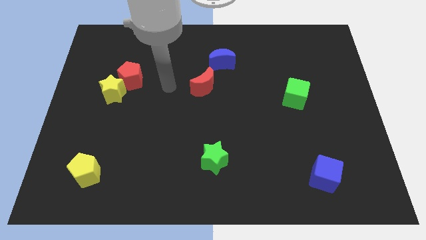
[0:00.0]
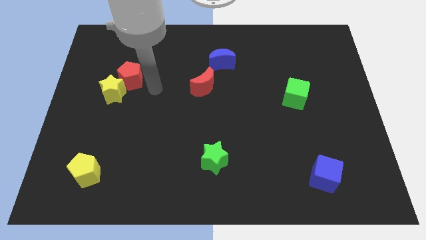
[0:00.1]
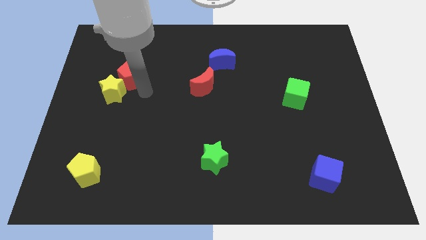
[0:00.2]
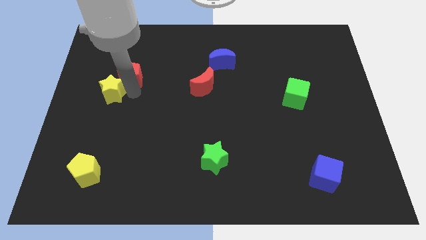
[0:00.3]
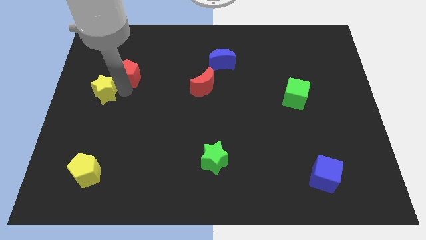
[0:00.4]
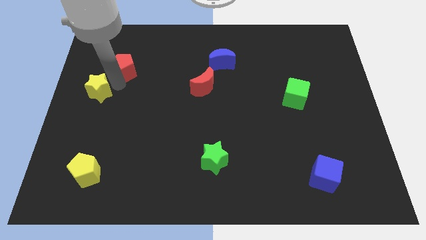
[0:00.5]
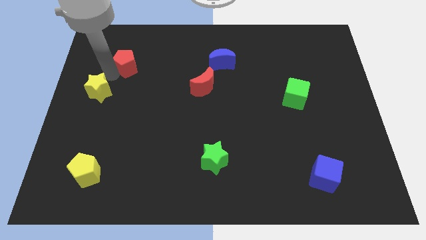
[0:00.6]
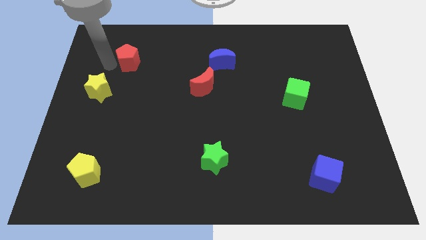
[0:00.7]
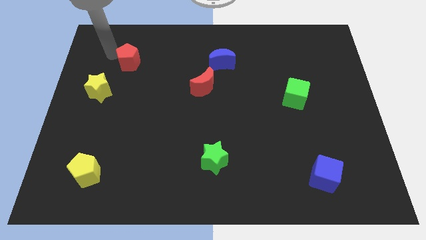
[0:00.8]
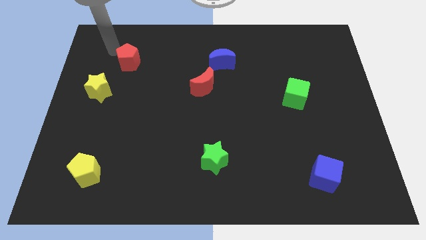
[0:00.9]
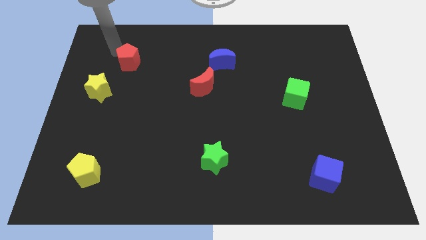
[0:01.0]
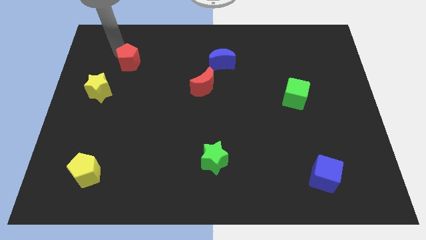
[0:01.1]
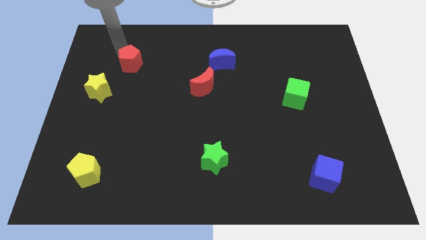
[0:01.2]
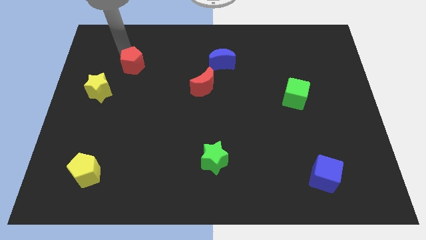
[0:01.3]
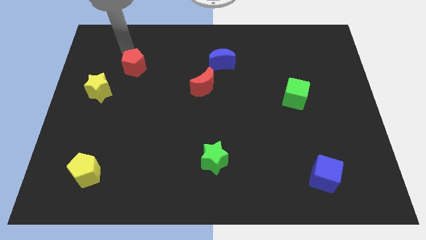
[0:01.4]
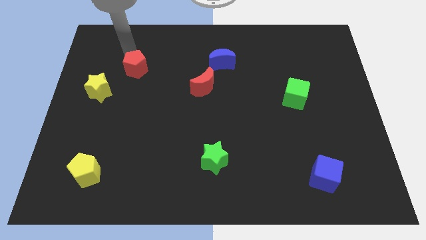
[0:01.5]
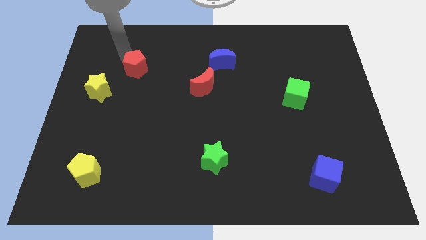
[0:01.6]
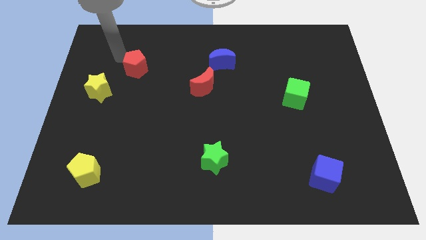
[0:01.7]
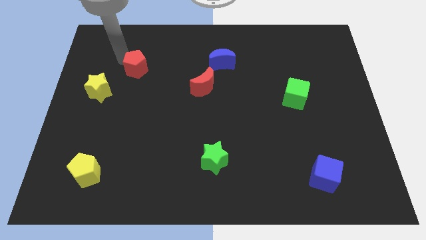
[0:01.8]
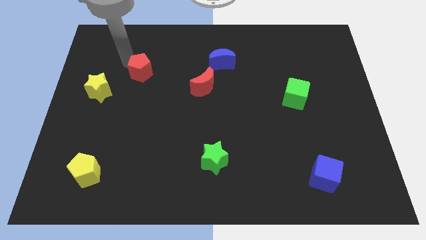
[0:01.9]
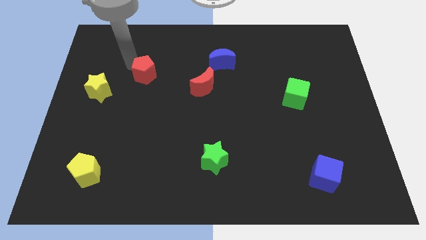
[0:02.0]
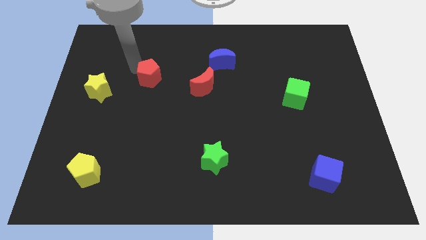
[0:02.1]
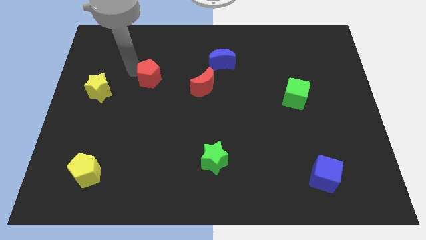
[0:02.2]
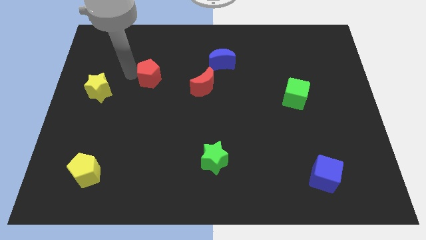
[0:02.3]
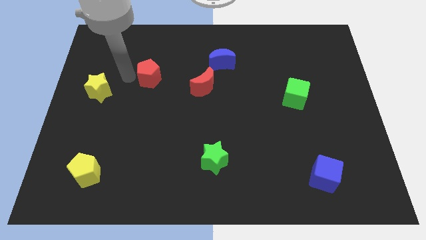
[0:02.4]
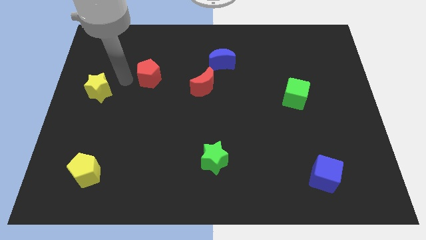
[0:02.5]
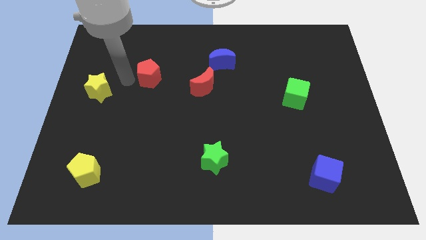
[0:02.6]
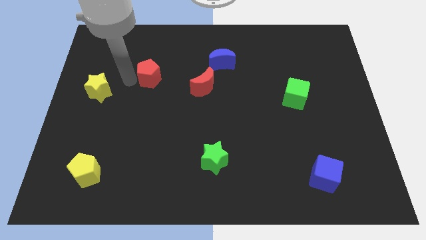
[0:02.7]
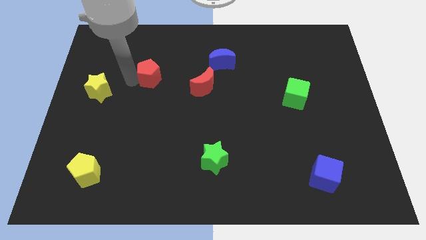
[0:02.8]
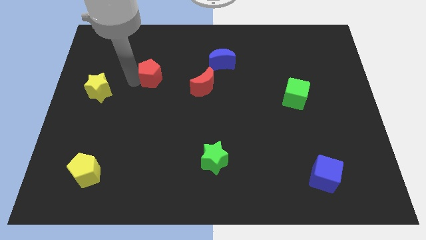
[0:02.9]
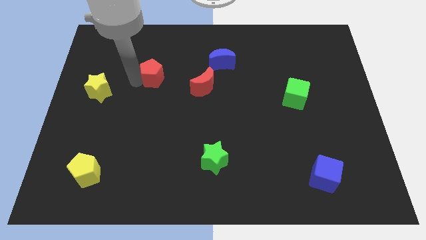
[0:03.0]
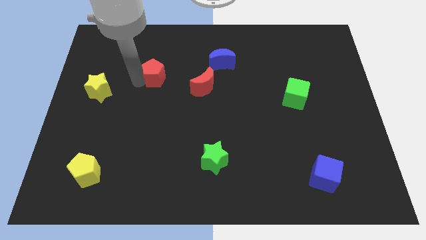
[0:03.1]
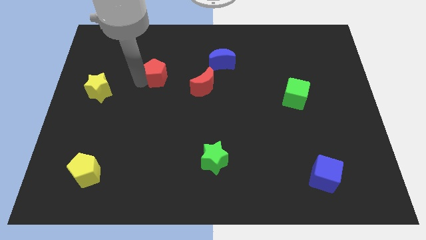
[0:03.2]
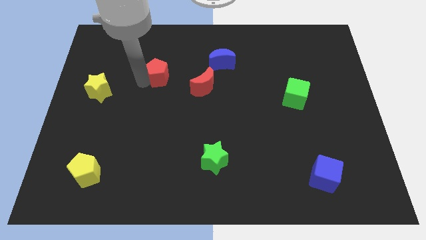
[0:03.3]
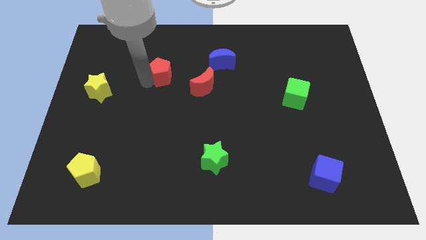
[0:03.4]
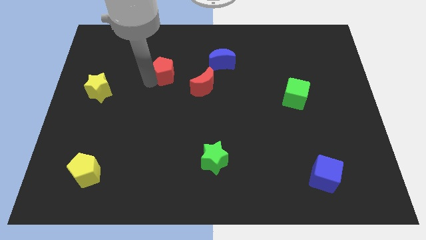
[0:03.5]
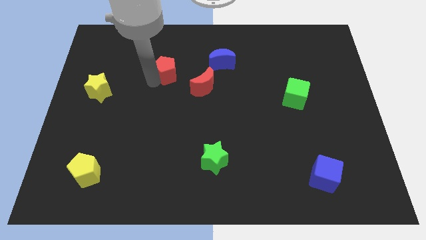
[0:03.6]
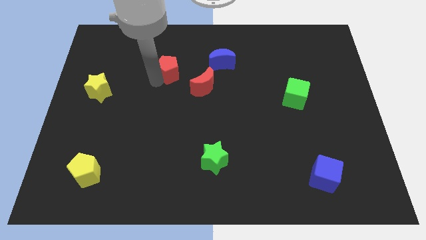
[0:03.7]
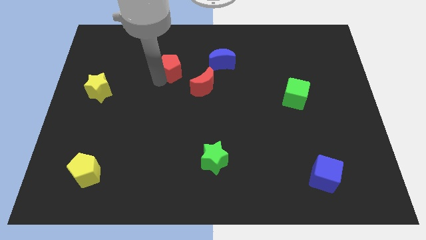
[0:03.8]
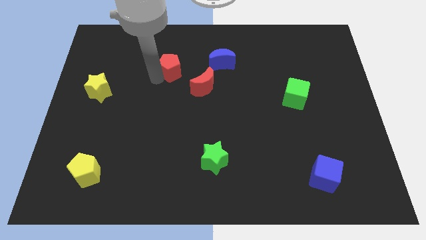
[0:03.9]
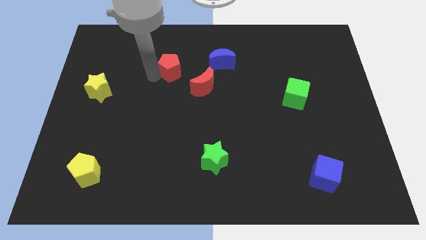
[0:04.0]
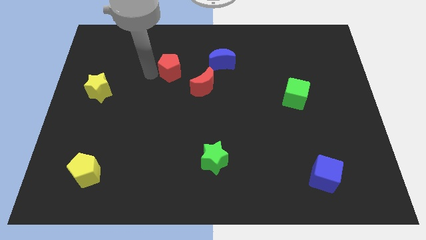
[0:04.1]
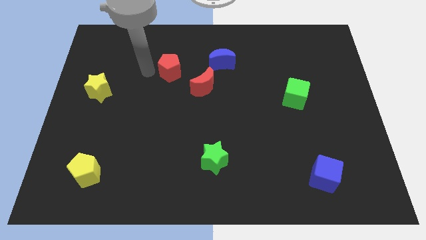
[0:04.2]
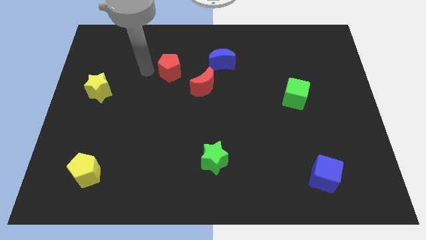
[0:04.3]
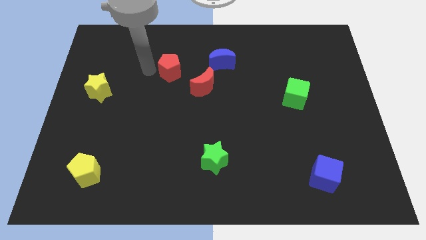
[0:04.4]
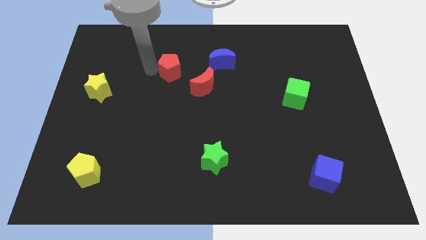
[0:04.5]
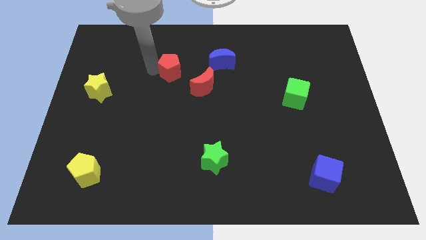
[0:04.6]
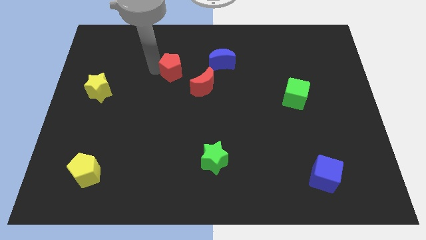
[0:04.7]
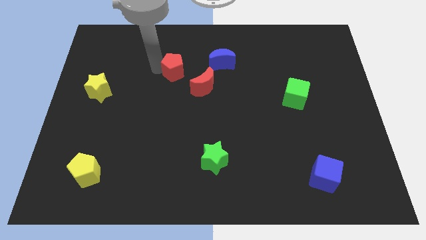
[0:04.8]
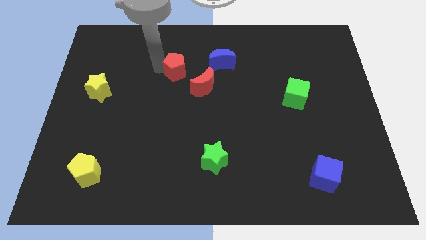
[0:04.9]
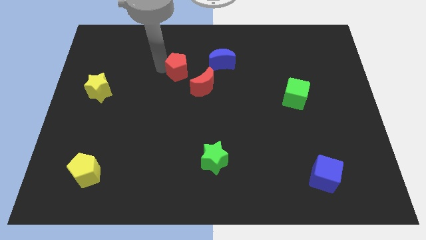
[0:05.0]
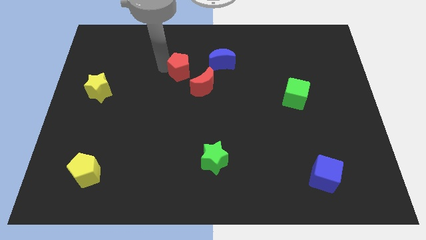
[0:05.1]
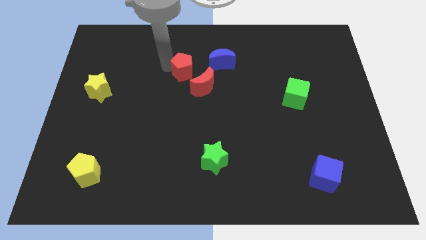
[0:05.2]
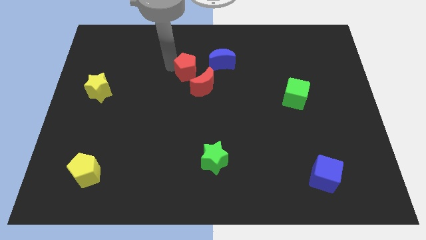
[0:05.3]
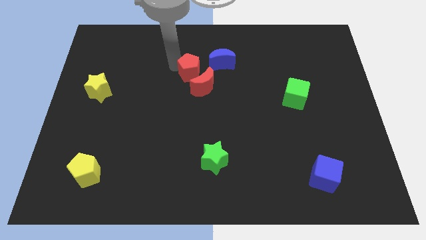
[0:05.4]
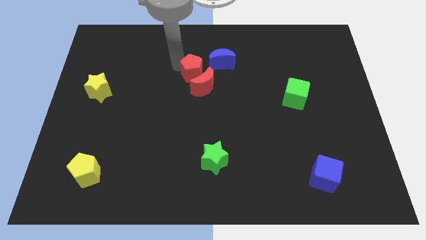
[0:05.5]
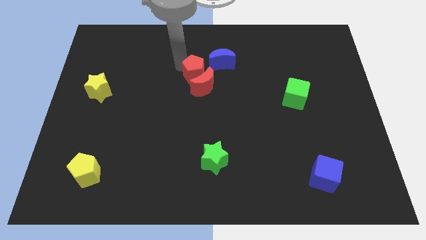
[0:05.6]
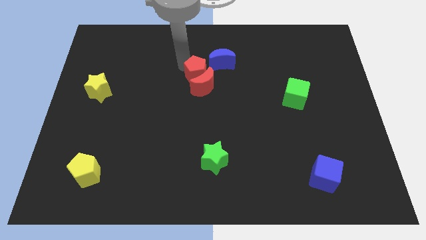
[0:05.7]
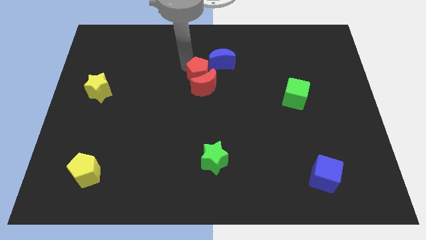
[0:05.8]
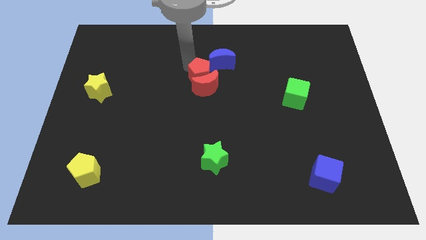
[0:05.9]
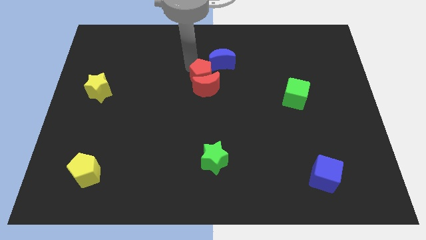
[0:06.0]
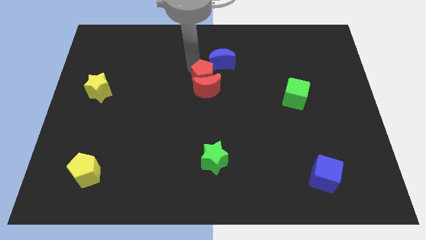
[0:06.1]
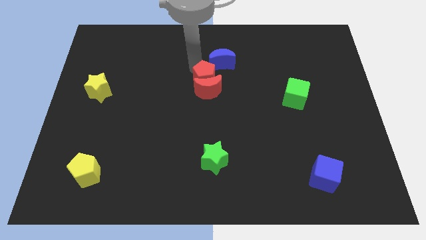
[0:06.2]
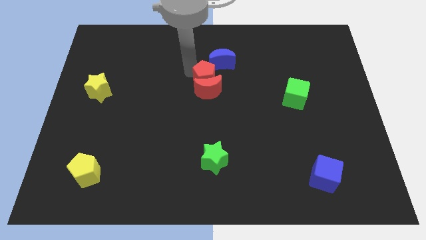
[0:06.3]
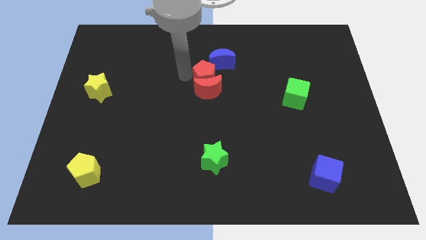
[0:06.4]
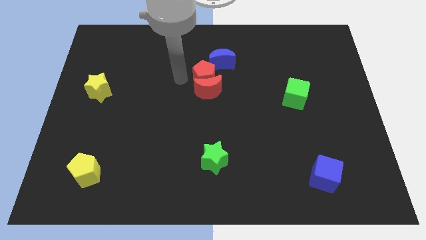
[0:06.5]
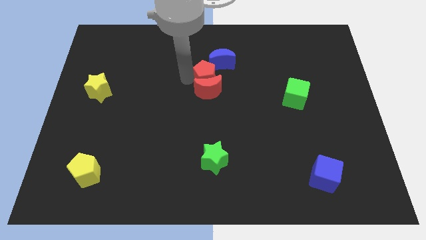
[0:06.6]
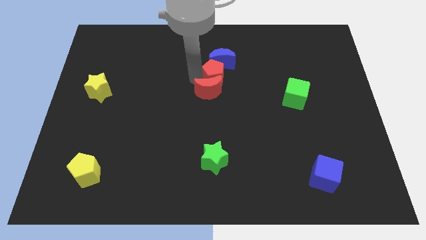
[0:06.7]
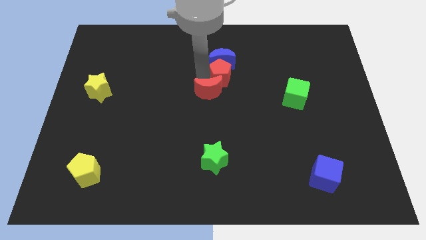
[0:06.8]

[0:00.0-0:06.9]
push the red pentagon to the bottom right side of the blue moon

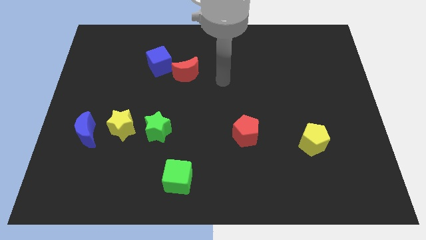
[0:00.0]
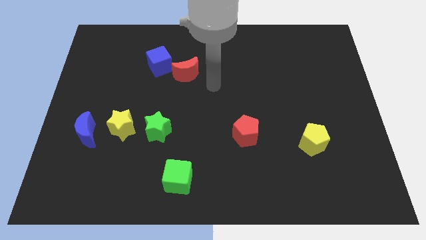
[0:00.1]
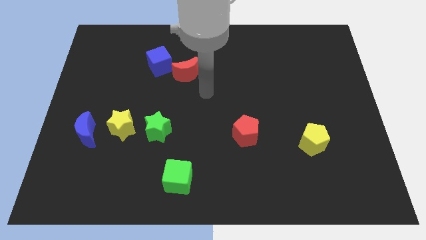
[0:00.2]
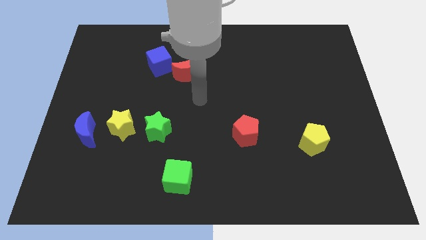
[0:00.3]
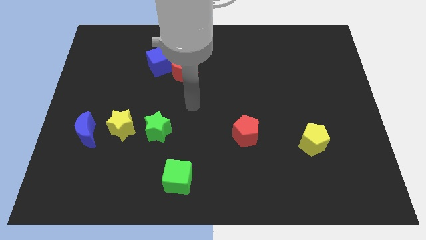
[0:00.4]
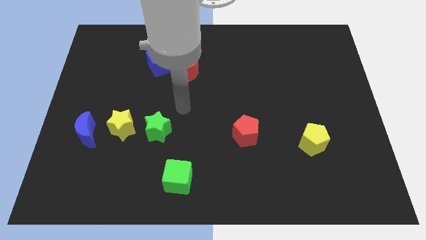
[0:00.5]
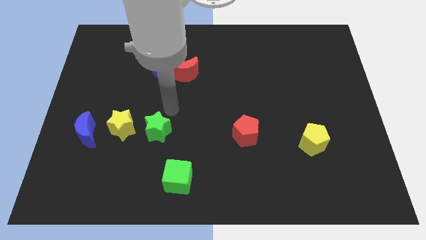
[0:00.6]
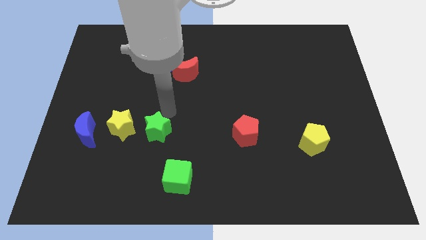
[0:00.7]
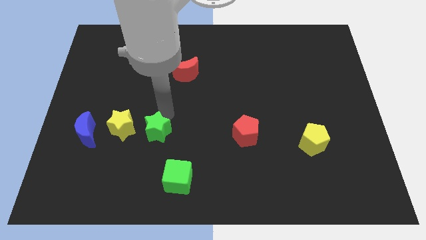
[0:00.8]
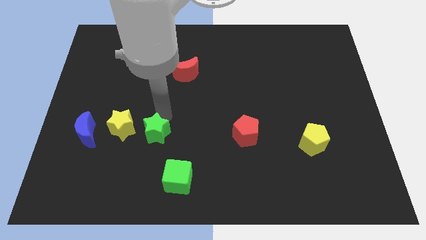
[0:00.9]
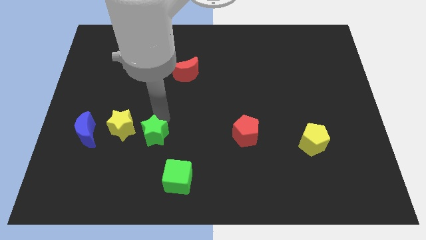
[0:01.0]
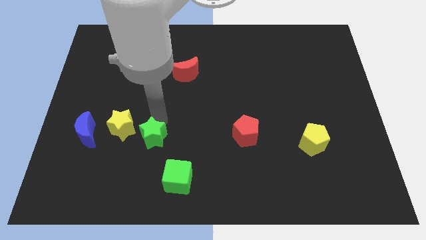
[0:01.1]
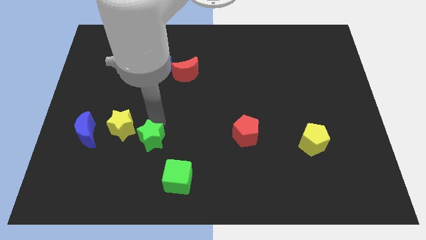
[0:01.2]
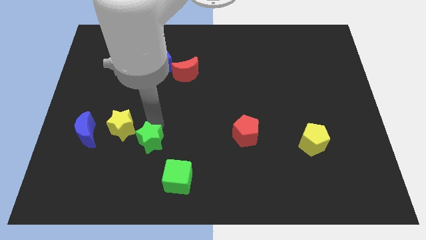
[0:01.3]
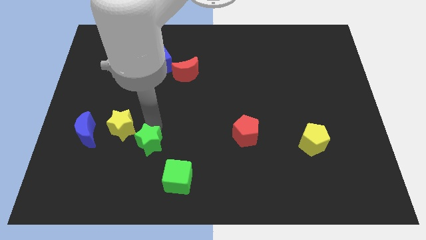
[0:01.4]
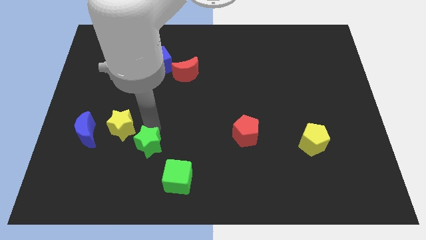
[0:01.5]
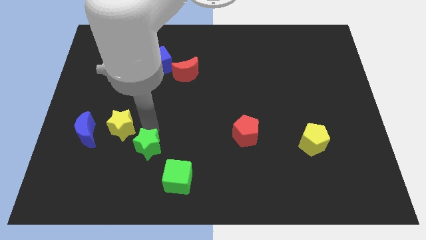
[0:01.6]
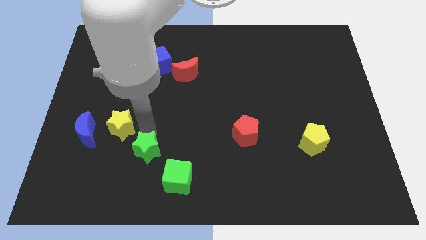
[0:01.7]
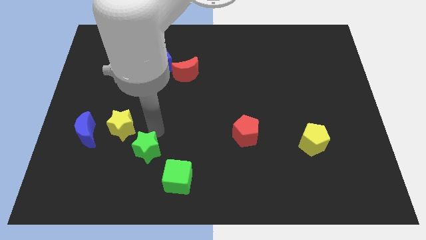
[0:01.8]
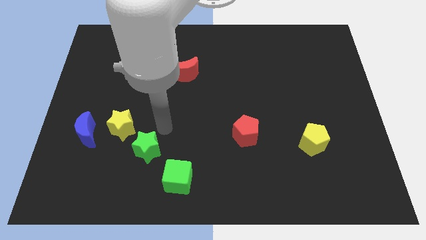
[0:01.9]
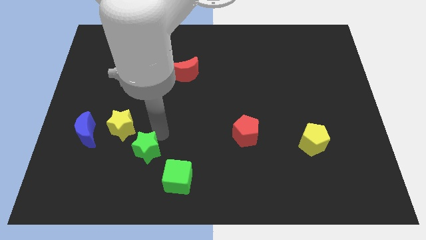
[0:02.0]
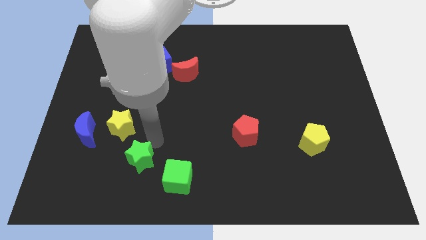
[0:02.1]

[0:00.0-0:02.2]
push the green star to the left of the green cube
